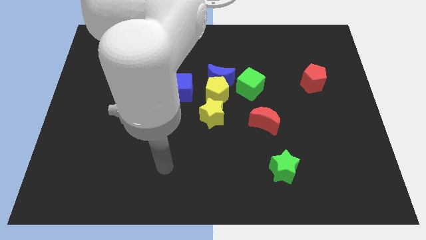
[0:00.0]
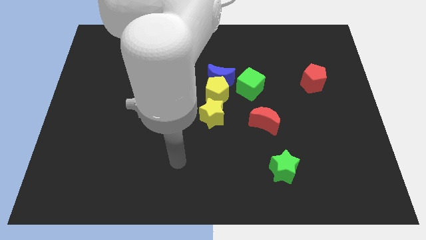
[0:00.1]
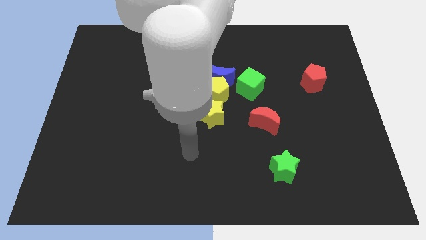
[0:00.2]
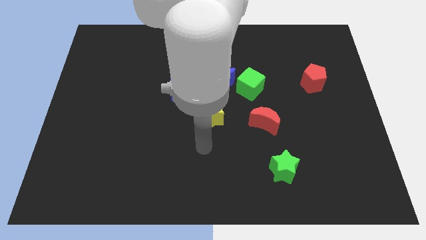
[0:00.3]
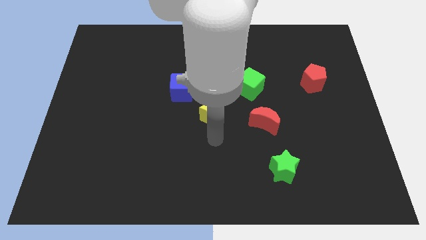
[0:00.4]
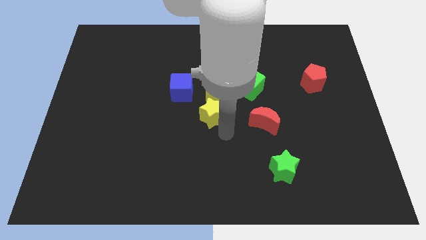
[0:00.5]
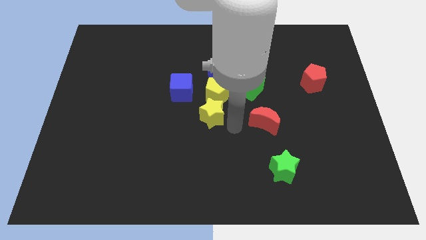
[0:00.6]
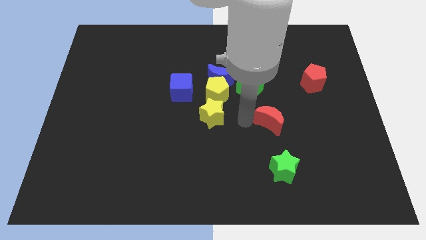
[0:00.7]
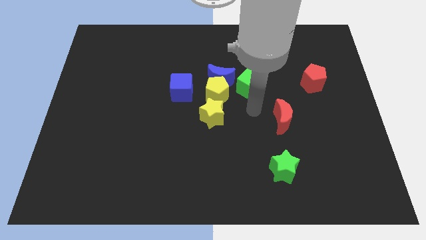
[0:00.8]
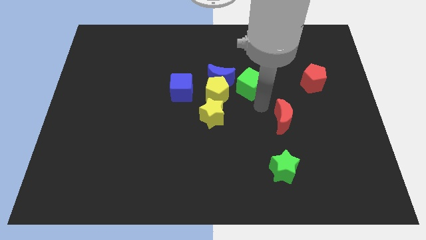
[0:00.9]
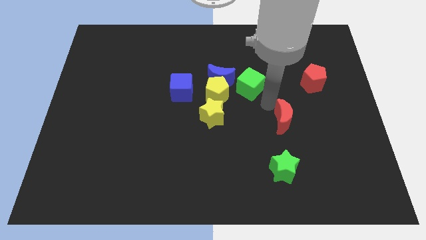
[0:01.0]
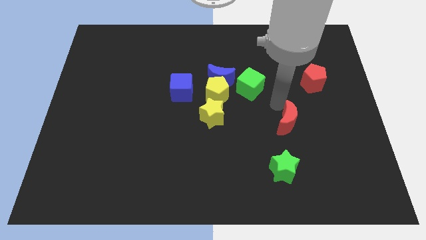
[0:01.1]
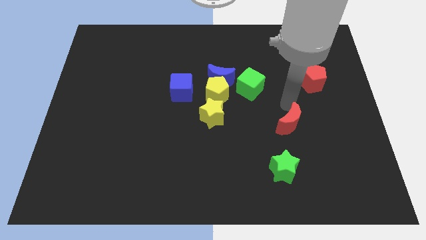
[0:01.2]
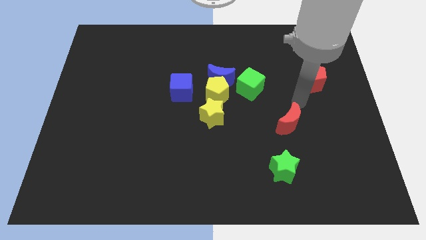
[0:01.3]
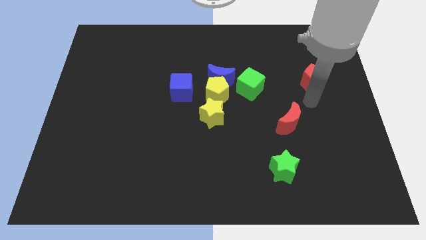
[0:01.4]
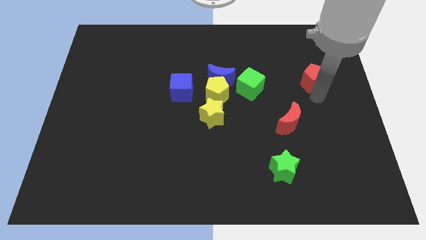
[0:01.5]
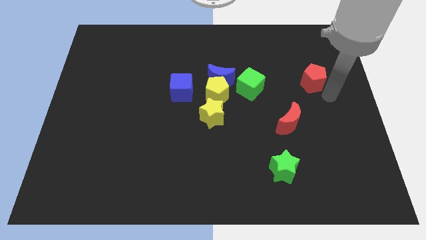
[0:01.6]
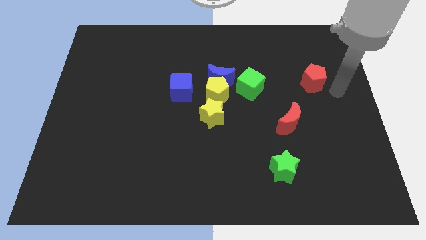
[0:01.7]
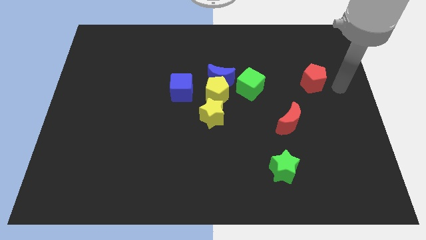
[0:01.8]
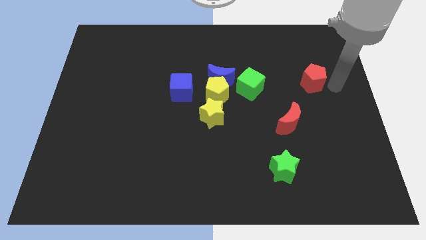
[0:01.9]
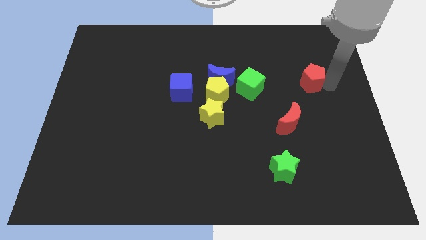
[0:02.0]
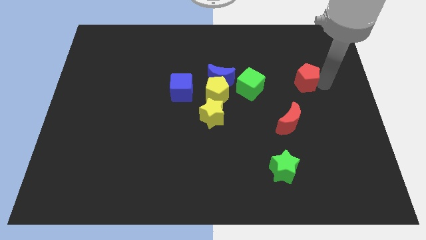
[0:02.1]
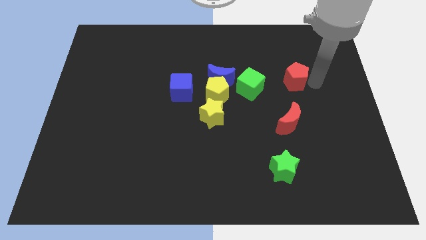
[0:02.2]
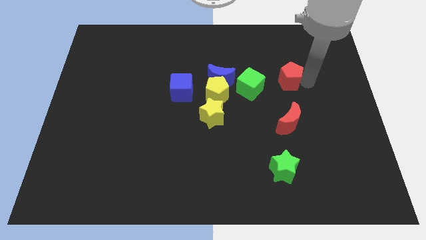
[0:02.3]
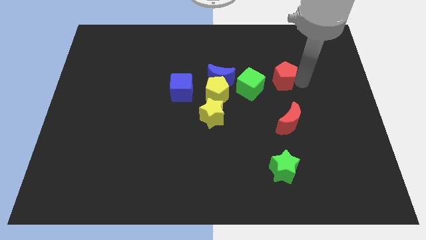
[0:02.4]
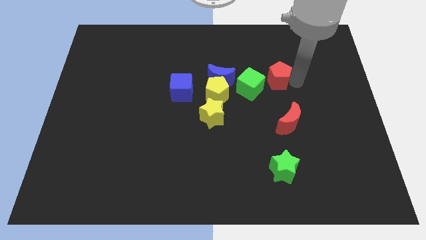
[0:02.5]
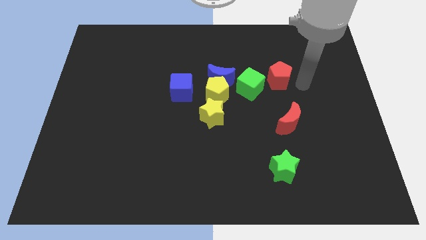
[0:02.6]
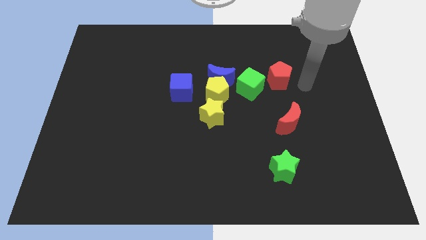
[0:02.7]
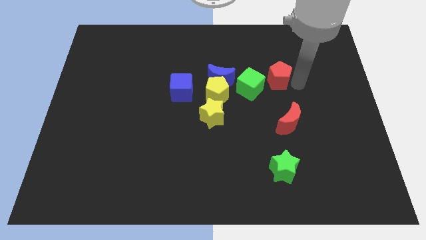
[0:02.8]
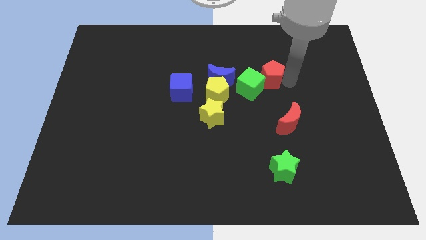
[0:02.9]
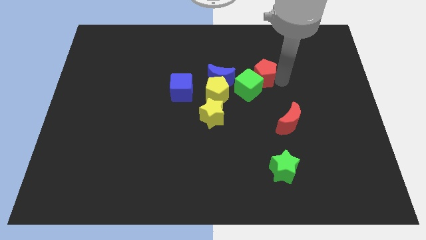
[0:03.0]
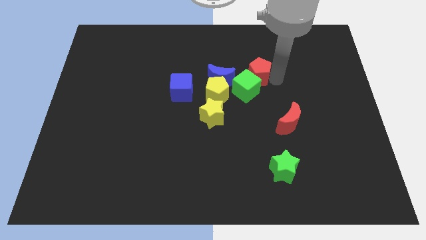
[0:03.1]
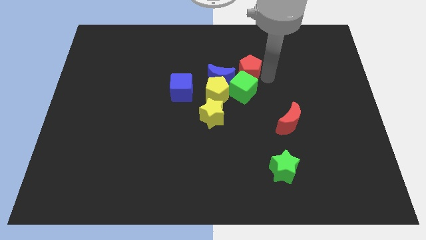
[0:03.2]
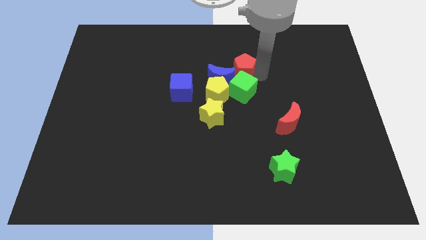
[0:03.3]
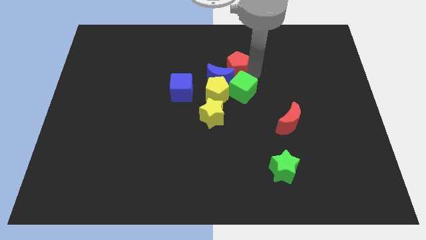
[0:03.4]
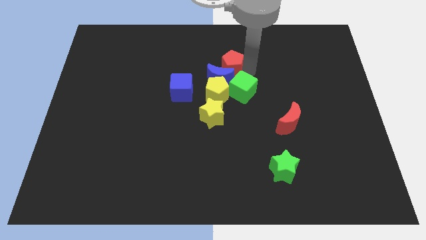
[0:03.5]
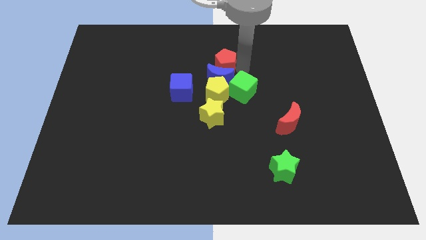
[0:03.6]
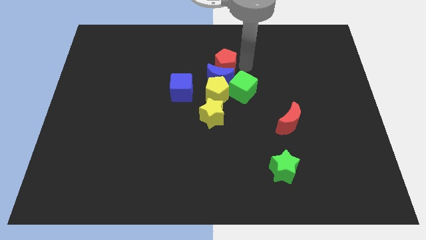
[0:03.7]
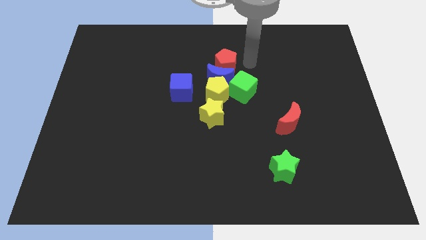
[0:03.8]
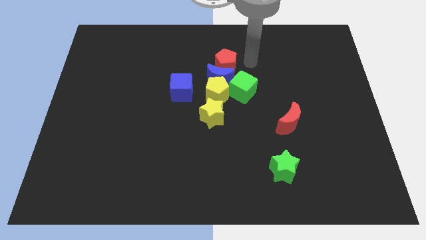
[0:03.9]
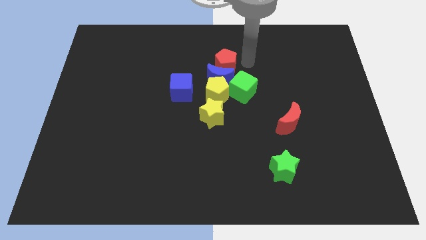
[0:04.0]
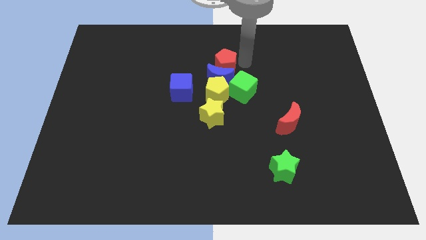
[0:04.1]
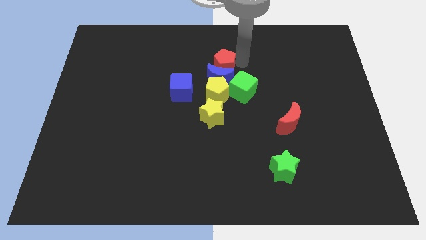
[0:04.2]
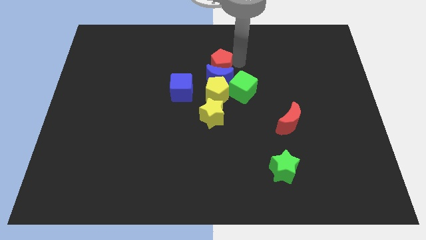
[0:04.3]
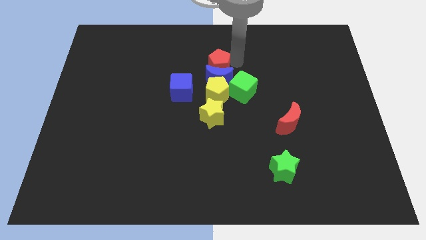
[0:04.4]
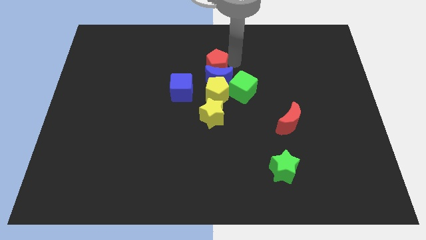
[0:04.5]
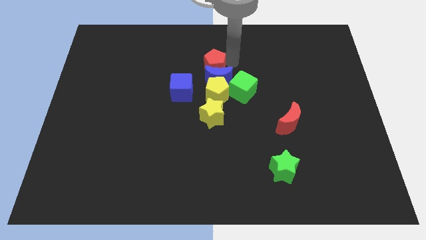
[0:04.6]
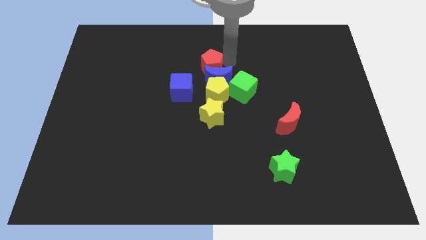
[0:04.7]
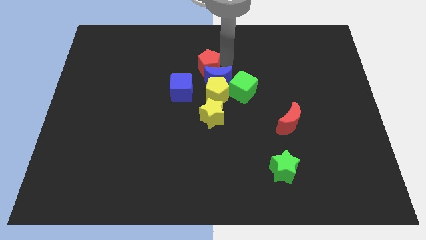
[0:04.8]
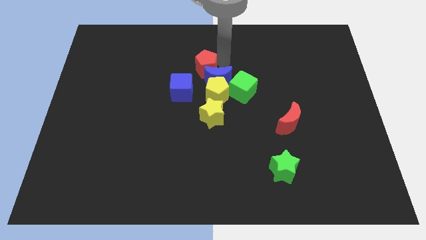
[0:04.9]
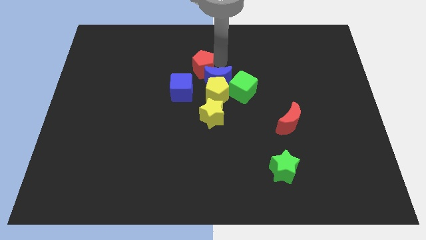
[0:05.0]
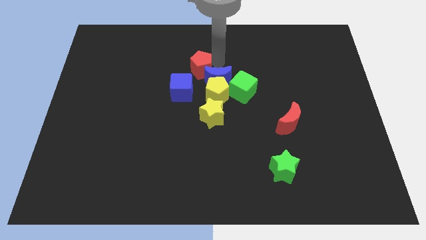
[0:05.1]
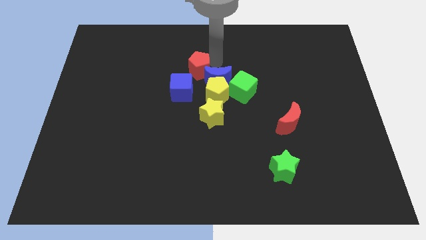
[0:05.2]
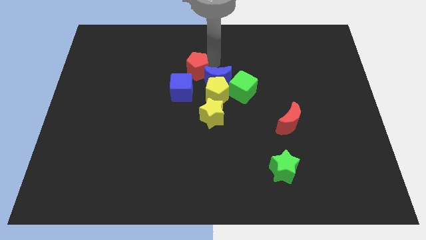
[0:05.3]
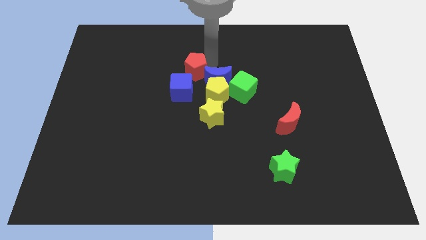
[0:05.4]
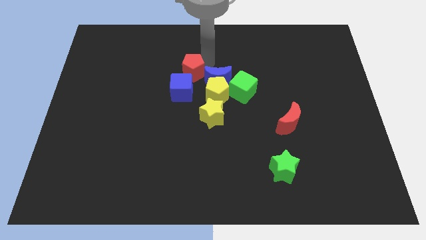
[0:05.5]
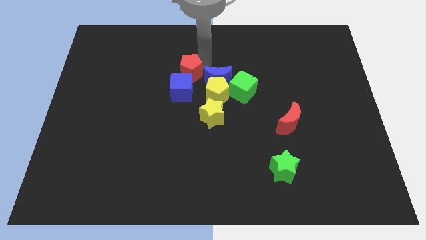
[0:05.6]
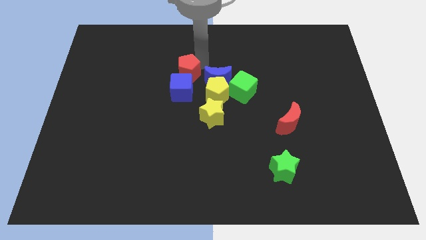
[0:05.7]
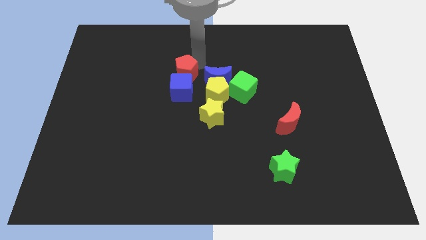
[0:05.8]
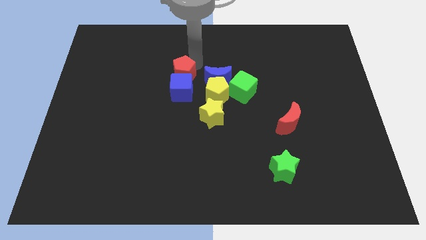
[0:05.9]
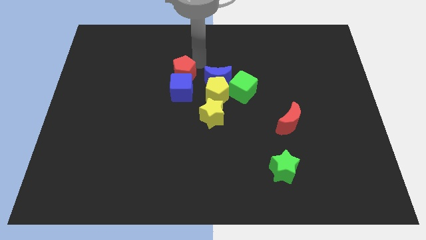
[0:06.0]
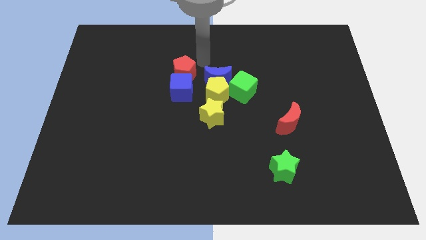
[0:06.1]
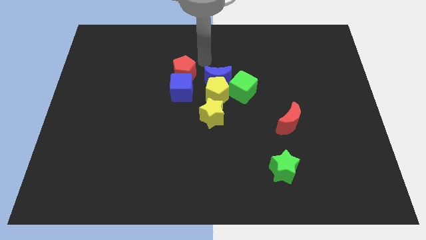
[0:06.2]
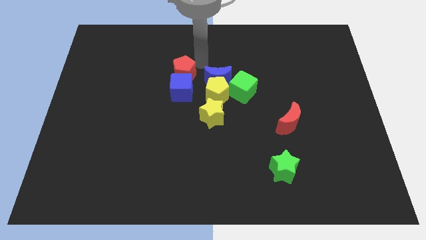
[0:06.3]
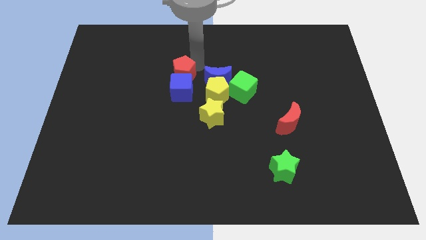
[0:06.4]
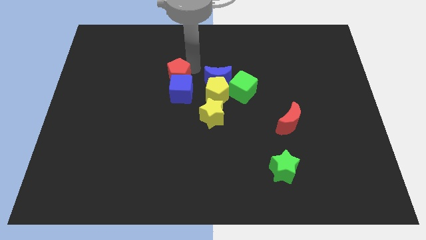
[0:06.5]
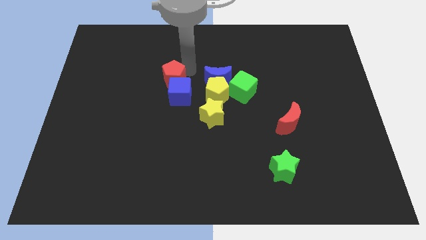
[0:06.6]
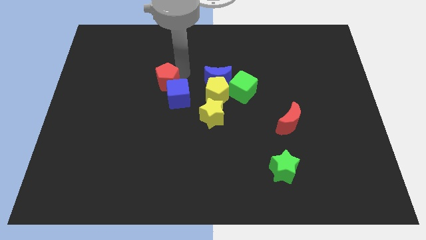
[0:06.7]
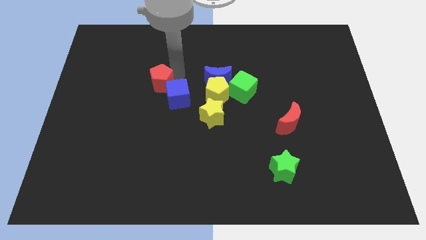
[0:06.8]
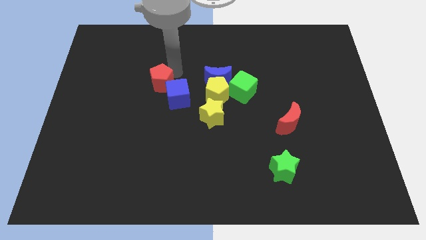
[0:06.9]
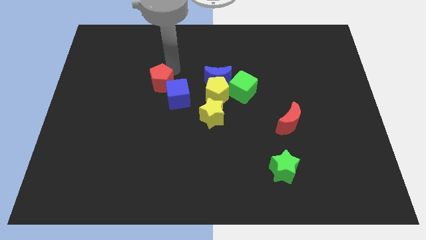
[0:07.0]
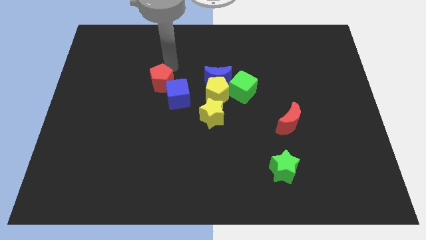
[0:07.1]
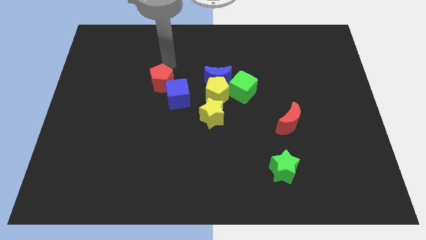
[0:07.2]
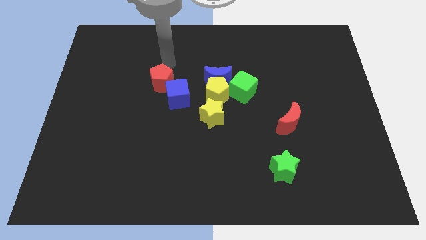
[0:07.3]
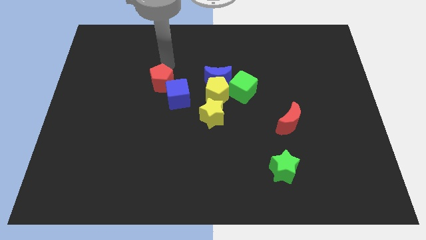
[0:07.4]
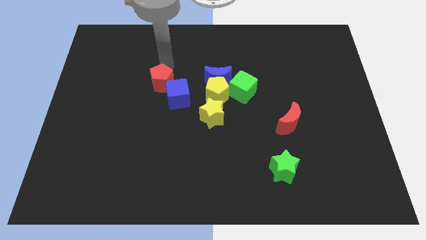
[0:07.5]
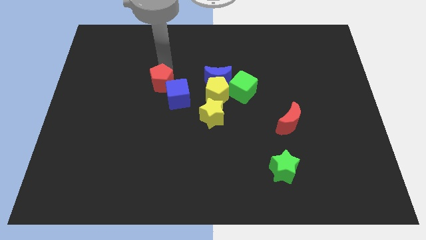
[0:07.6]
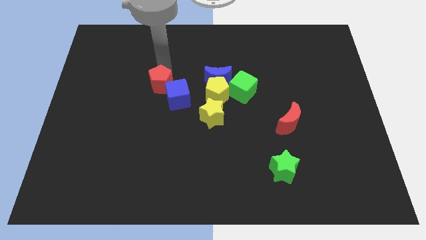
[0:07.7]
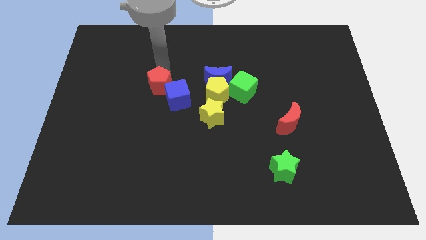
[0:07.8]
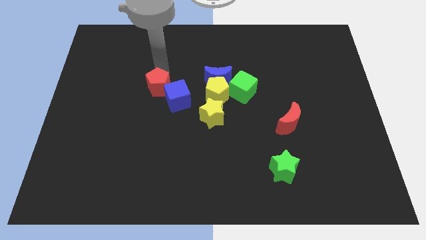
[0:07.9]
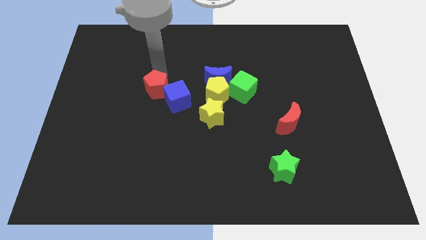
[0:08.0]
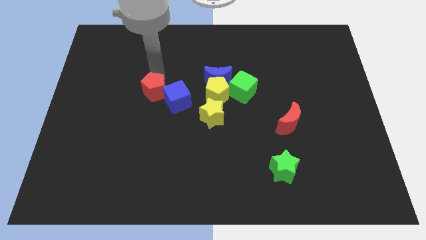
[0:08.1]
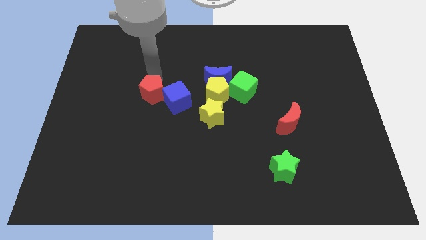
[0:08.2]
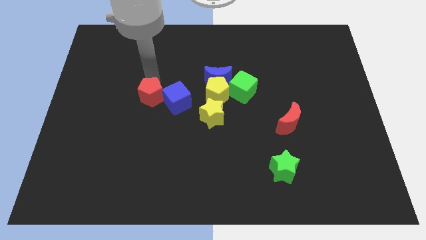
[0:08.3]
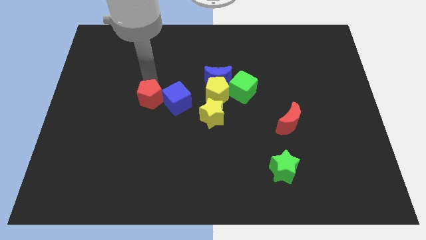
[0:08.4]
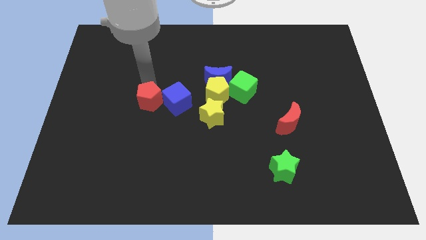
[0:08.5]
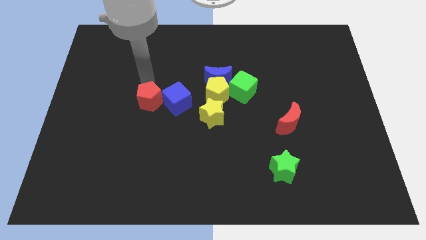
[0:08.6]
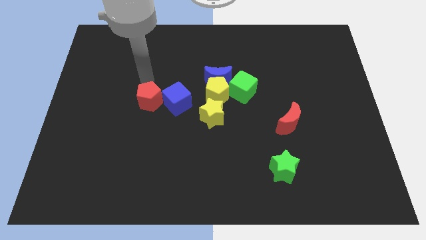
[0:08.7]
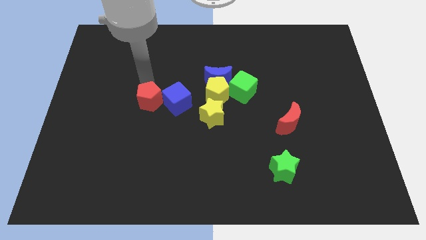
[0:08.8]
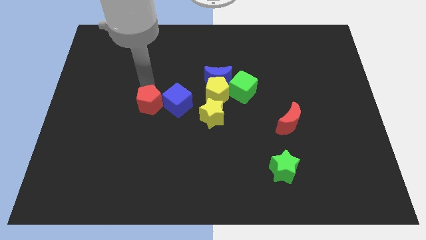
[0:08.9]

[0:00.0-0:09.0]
move the red pentagon to the bottom left side of the blue cube
